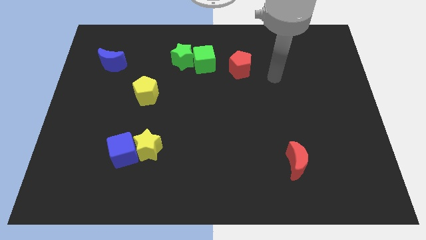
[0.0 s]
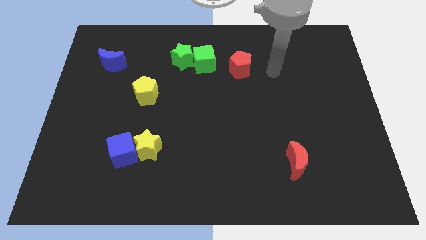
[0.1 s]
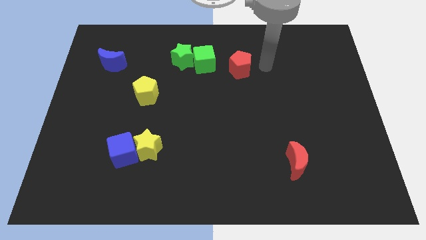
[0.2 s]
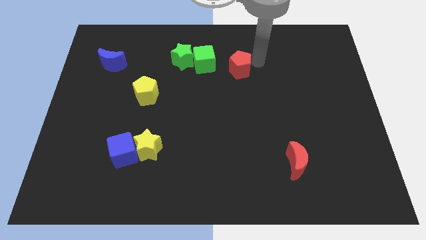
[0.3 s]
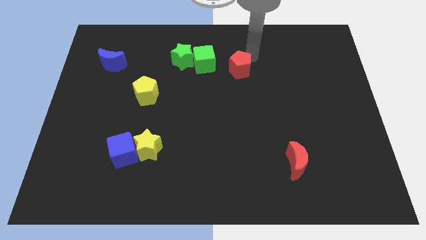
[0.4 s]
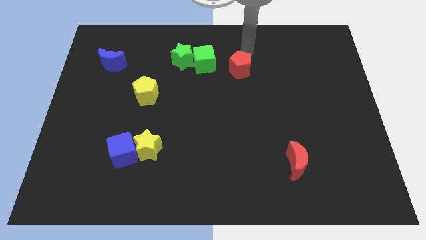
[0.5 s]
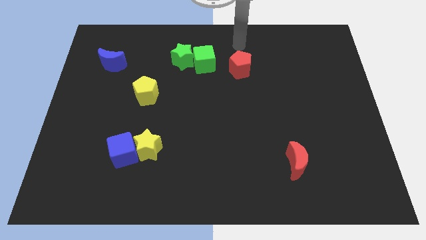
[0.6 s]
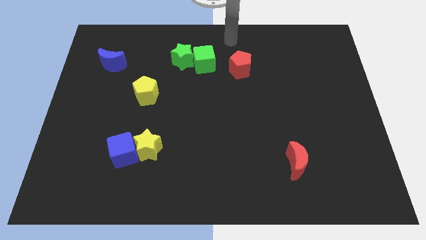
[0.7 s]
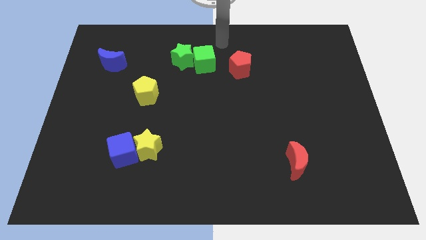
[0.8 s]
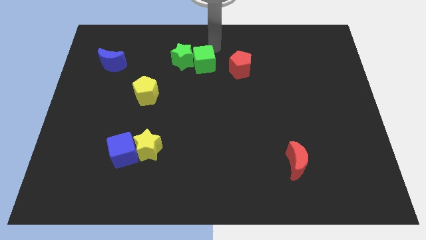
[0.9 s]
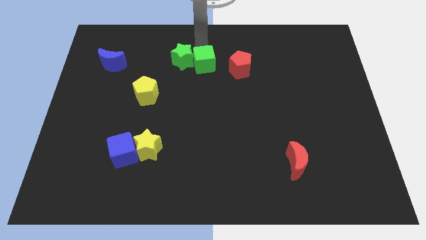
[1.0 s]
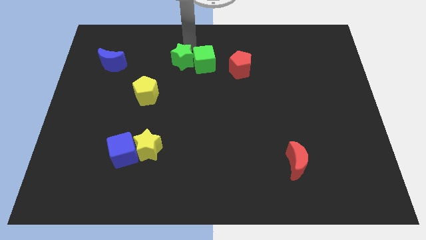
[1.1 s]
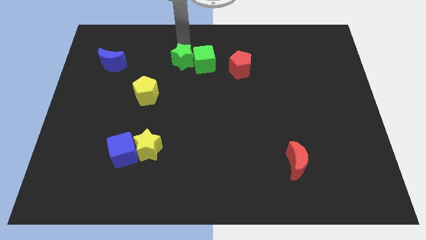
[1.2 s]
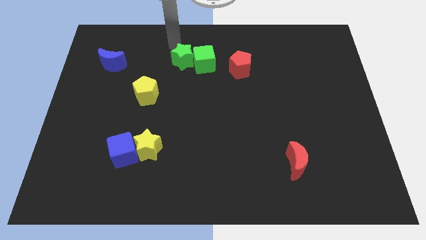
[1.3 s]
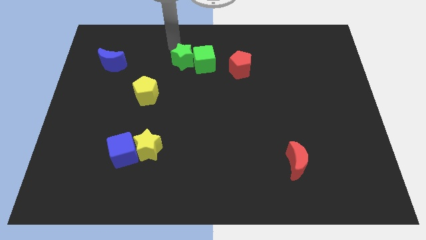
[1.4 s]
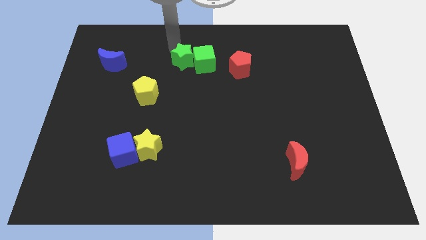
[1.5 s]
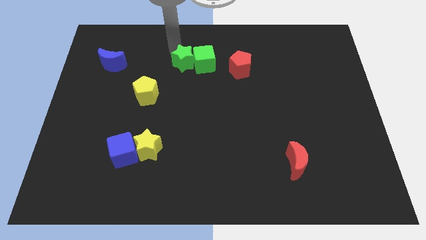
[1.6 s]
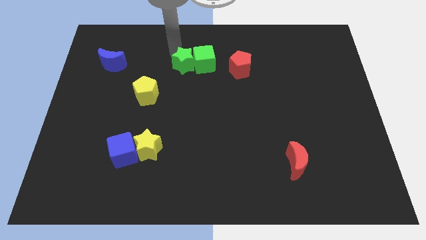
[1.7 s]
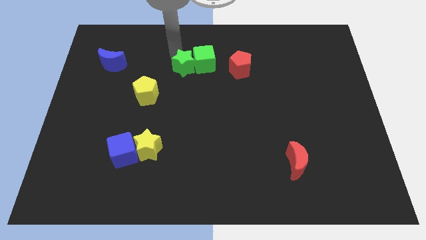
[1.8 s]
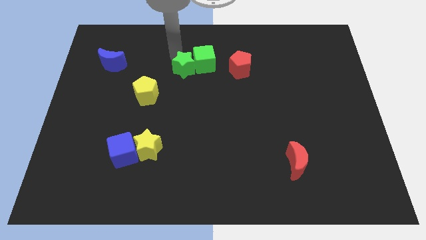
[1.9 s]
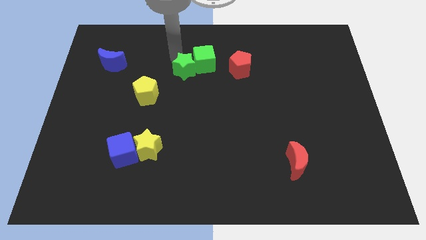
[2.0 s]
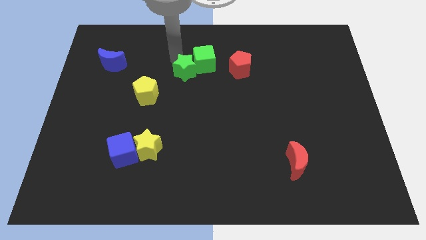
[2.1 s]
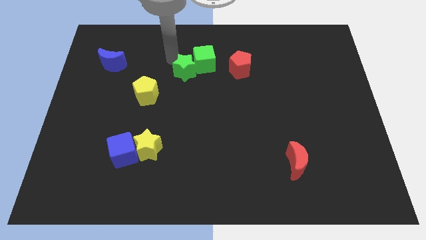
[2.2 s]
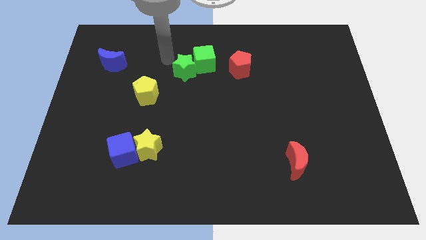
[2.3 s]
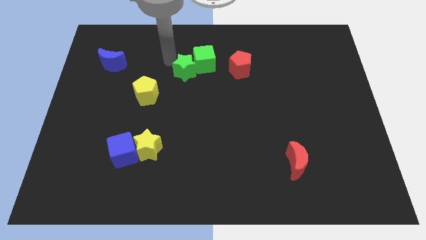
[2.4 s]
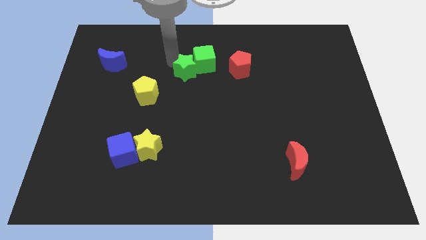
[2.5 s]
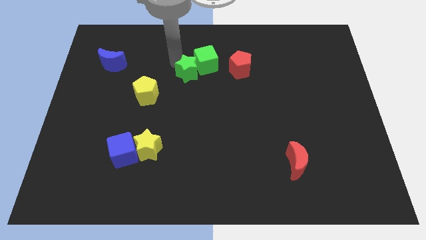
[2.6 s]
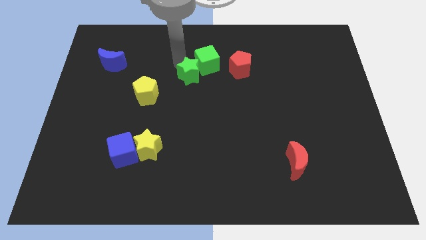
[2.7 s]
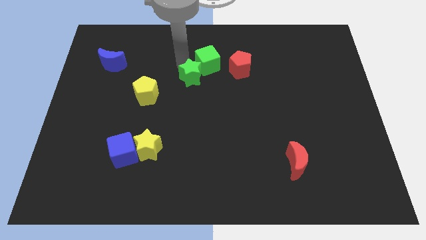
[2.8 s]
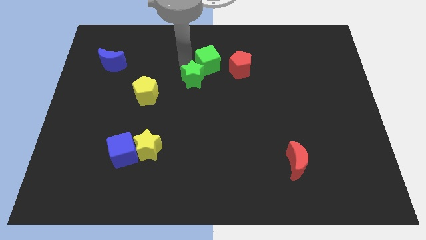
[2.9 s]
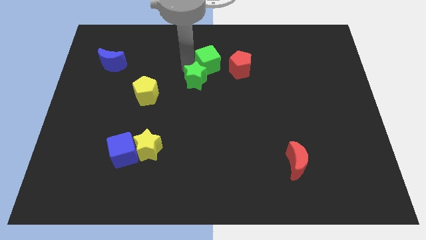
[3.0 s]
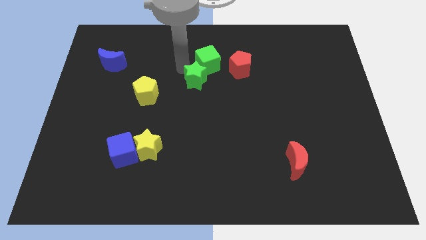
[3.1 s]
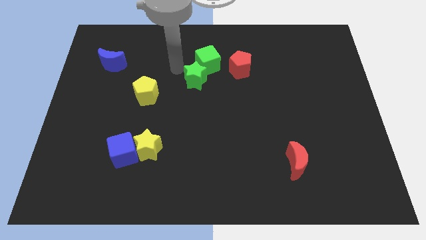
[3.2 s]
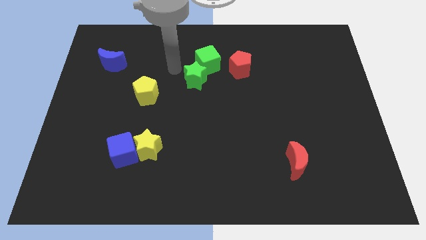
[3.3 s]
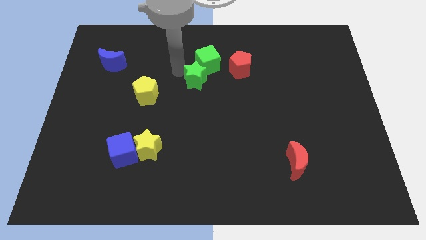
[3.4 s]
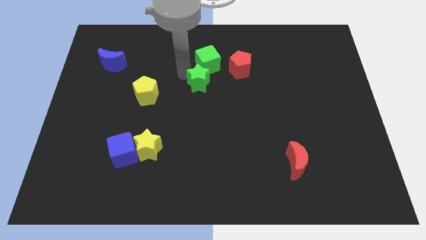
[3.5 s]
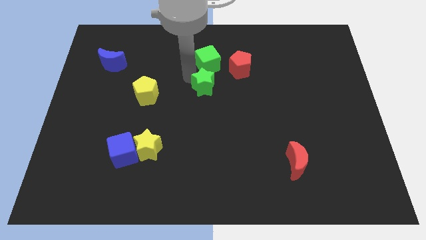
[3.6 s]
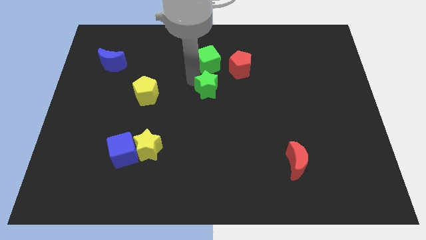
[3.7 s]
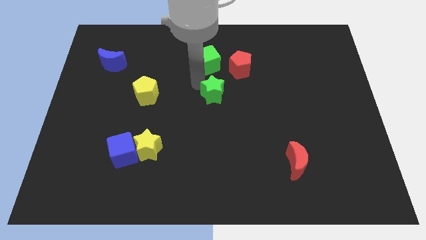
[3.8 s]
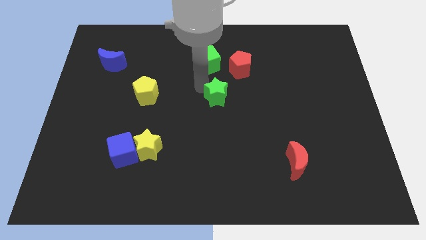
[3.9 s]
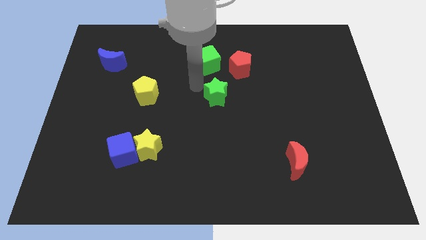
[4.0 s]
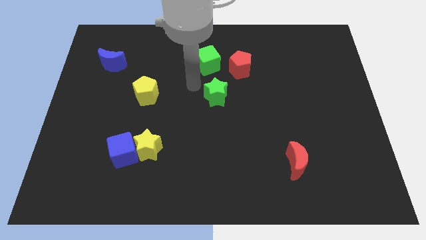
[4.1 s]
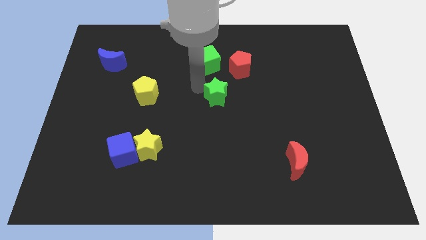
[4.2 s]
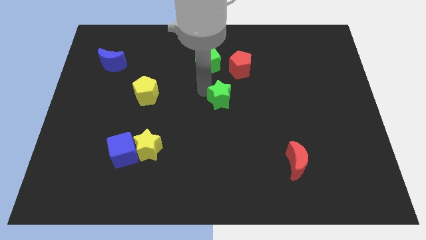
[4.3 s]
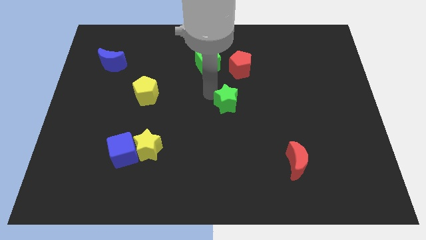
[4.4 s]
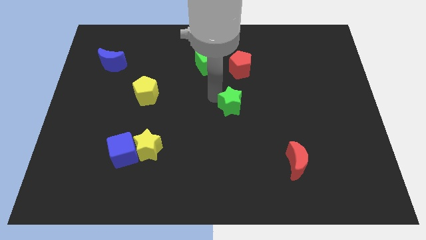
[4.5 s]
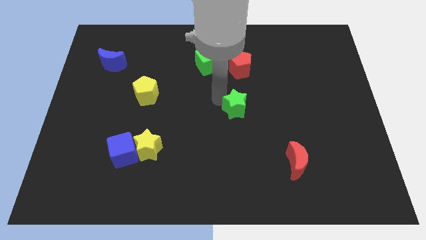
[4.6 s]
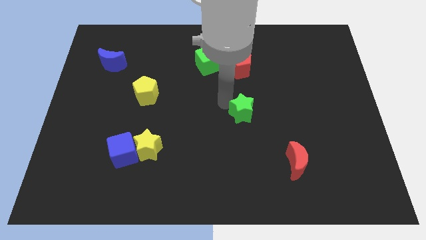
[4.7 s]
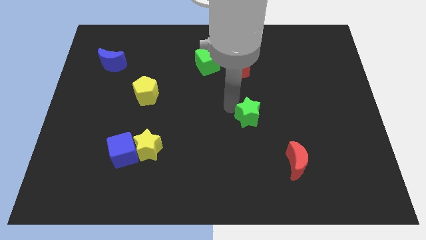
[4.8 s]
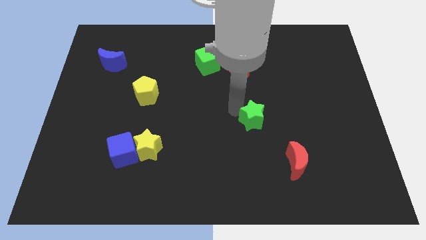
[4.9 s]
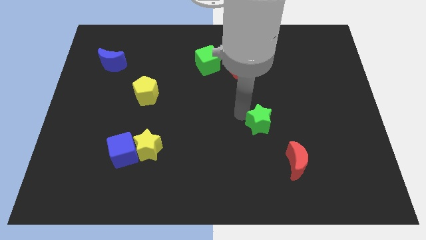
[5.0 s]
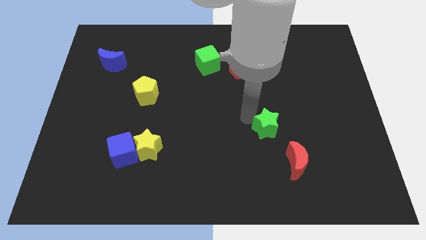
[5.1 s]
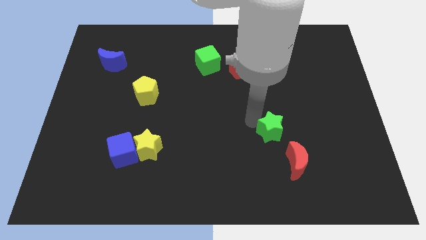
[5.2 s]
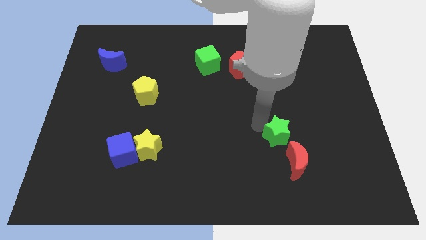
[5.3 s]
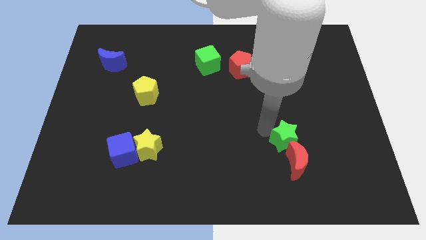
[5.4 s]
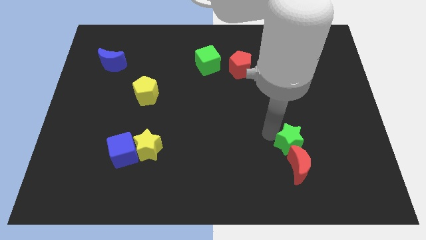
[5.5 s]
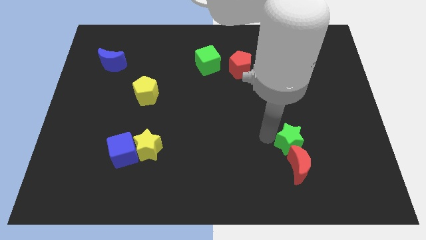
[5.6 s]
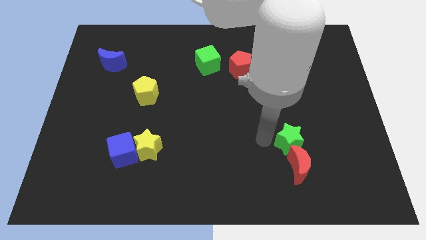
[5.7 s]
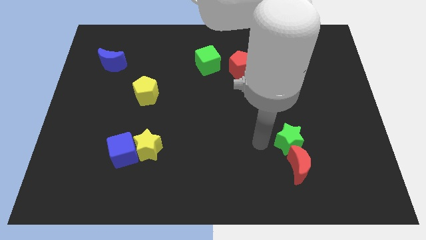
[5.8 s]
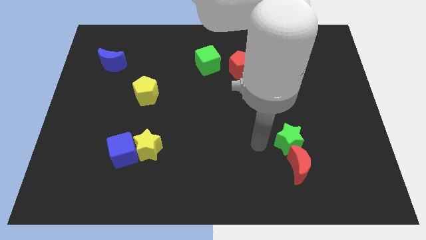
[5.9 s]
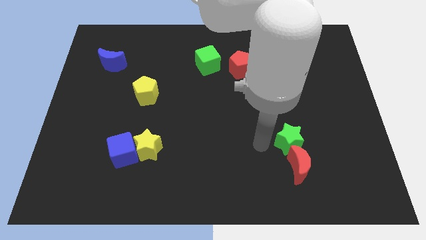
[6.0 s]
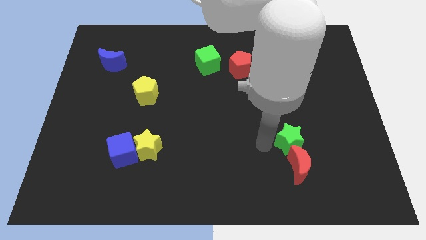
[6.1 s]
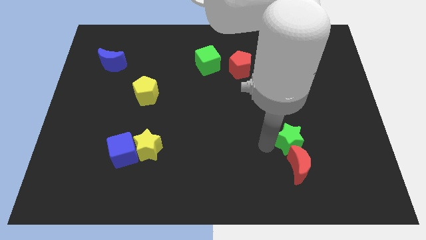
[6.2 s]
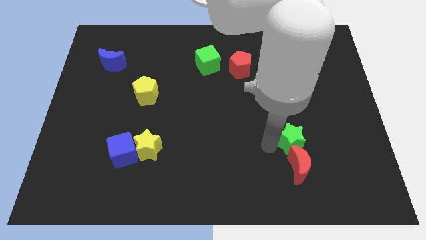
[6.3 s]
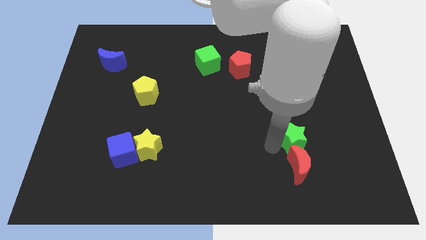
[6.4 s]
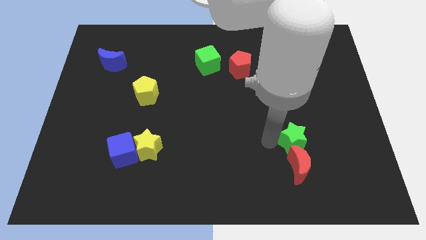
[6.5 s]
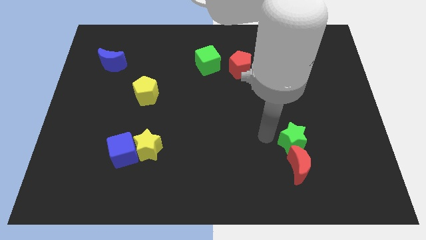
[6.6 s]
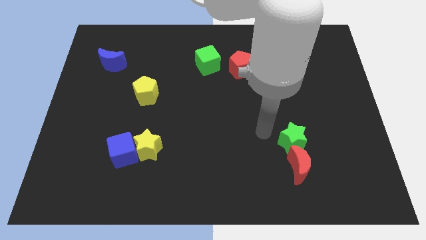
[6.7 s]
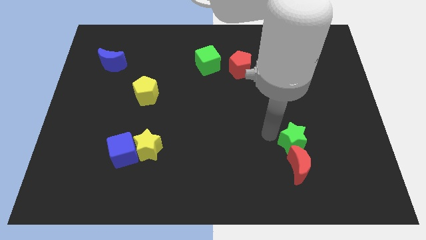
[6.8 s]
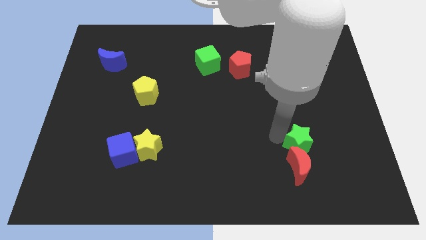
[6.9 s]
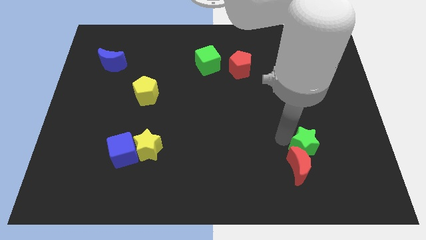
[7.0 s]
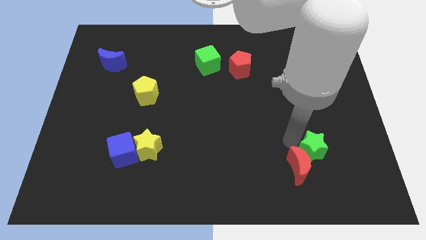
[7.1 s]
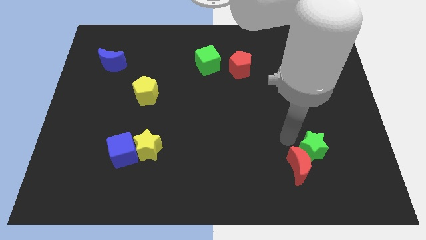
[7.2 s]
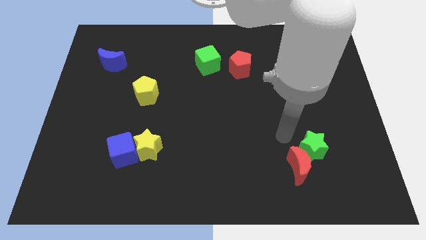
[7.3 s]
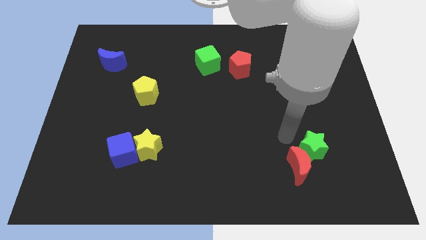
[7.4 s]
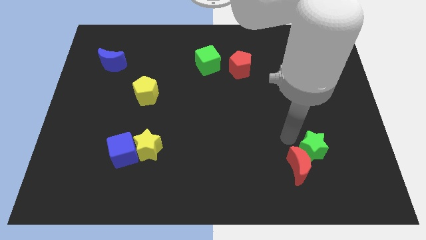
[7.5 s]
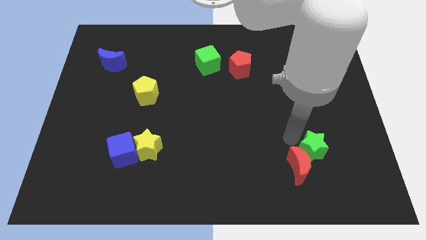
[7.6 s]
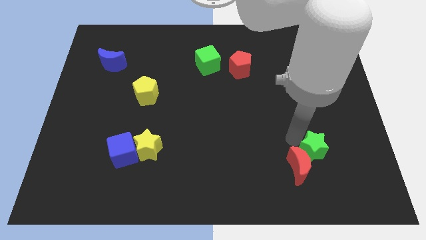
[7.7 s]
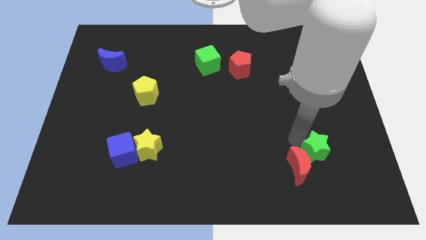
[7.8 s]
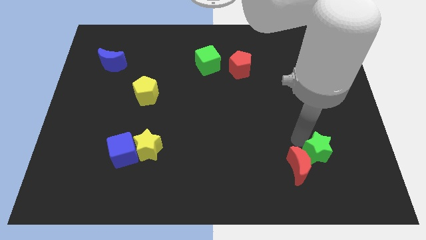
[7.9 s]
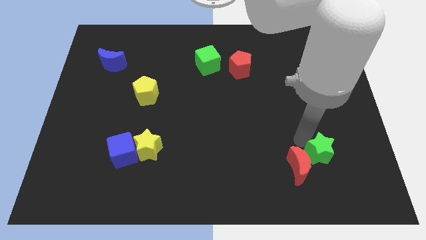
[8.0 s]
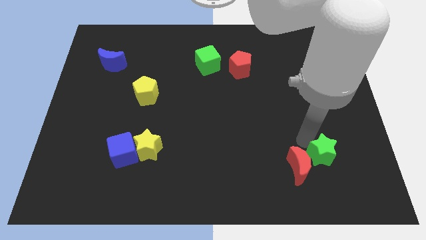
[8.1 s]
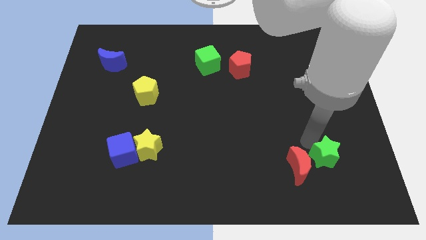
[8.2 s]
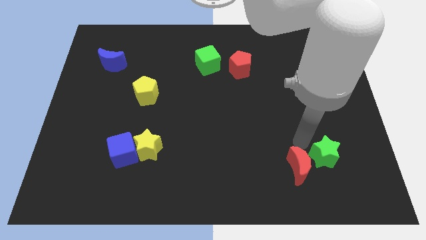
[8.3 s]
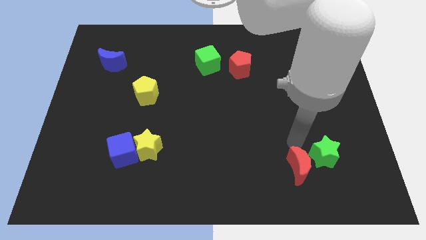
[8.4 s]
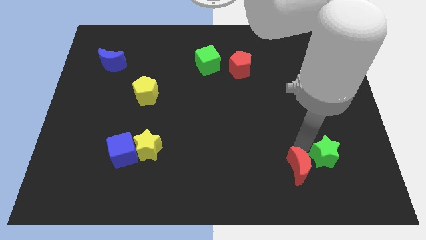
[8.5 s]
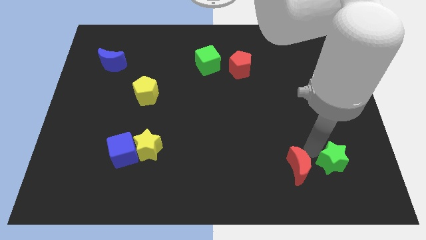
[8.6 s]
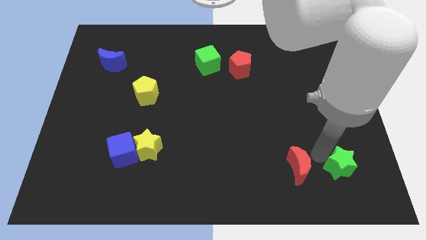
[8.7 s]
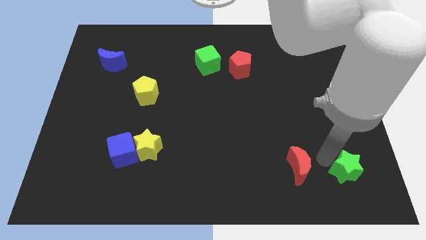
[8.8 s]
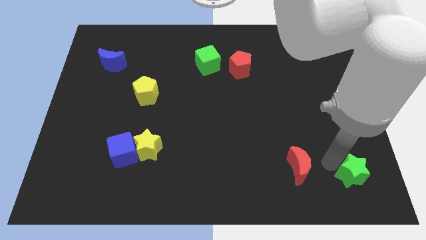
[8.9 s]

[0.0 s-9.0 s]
put the green star to the bottom right of the board
